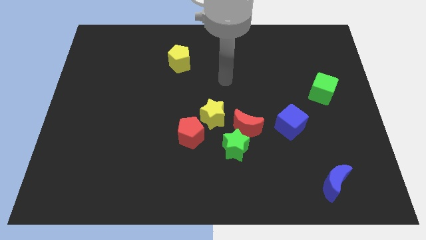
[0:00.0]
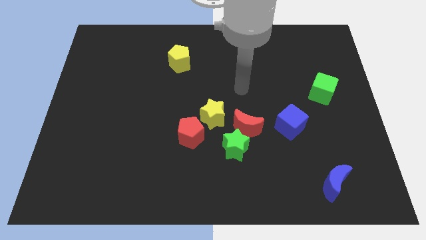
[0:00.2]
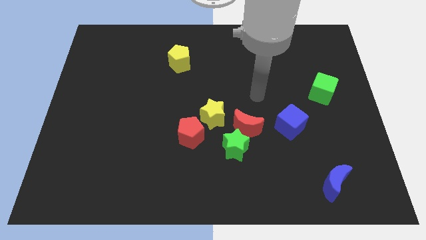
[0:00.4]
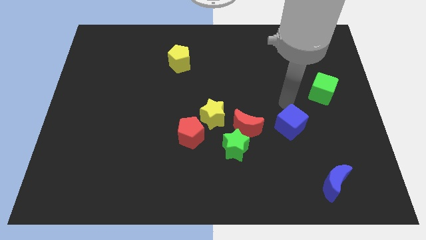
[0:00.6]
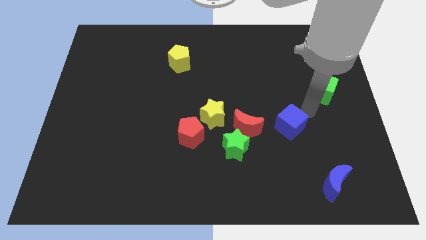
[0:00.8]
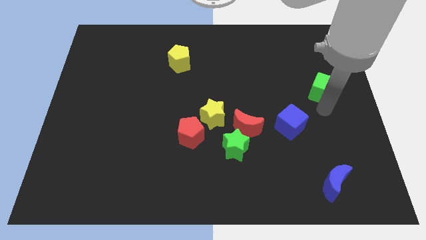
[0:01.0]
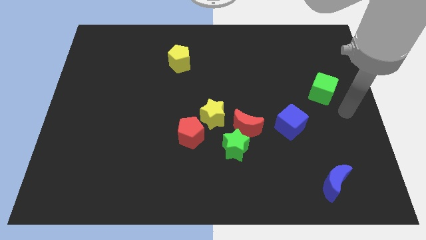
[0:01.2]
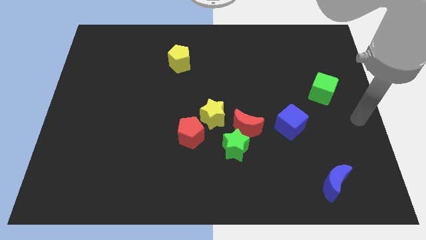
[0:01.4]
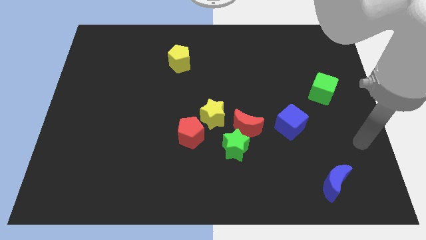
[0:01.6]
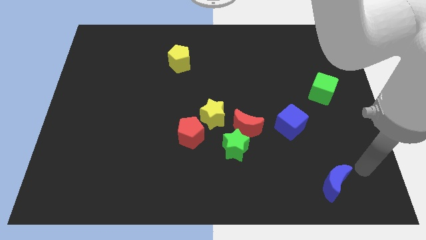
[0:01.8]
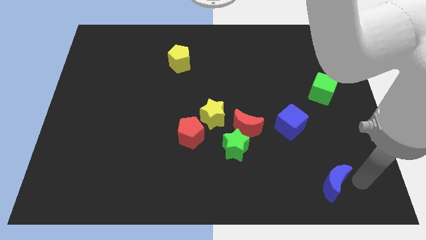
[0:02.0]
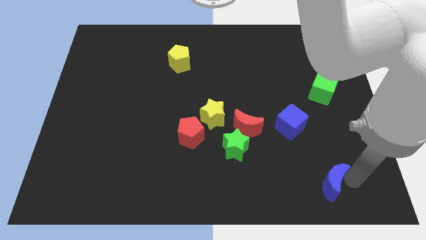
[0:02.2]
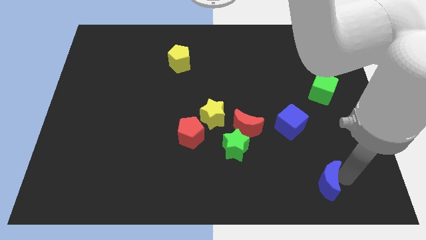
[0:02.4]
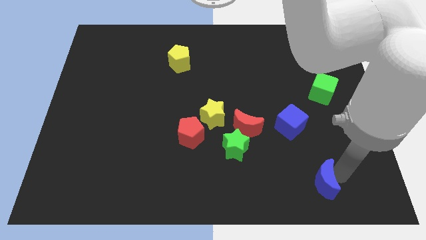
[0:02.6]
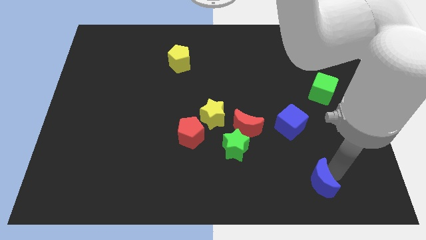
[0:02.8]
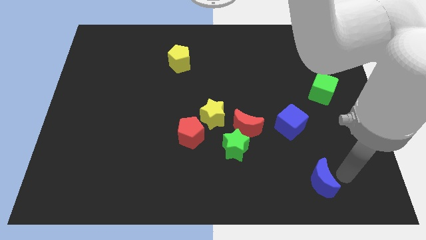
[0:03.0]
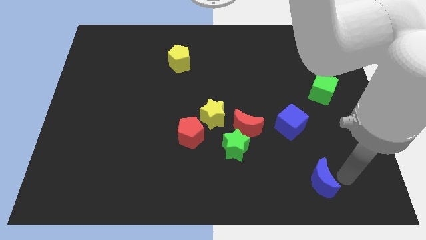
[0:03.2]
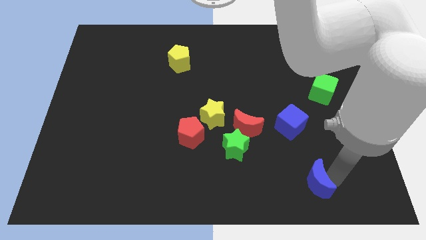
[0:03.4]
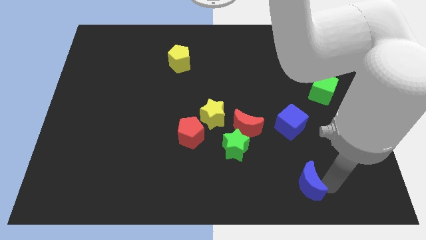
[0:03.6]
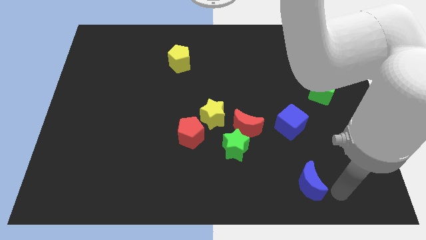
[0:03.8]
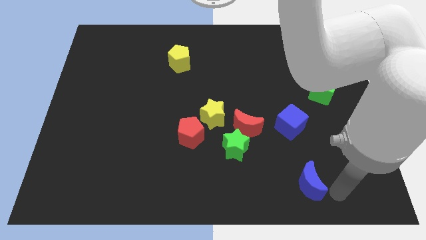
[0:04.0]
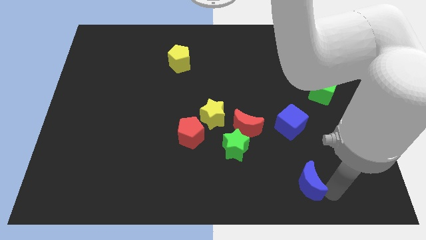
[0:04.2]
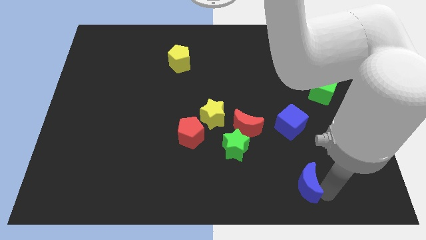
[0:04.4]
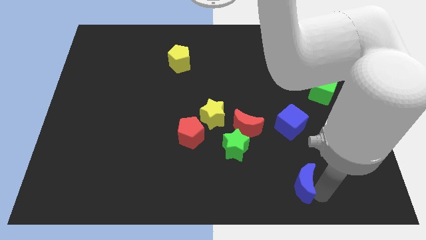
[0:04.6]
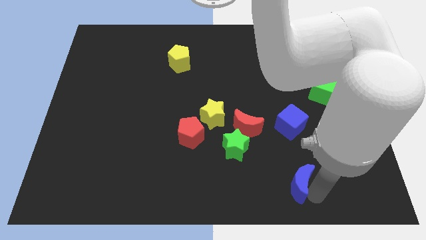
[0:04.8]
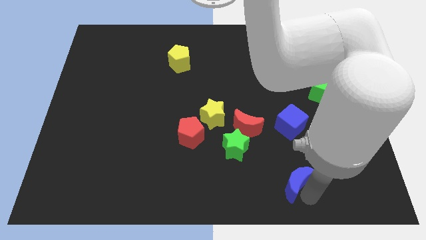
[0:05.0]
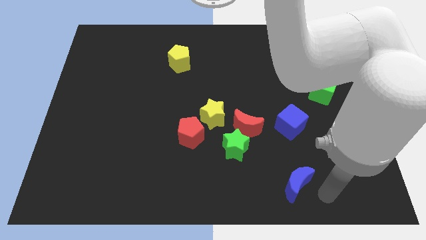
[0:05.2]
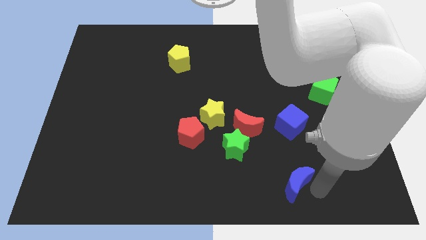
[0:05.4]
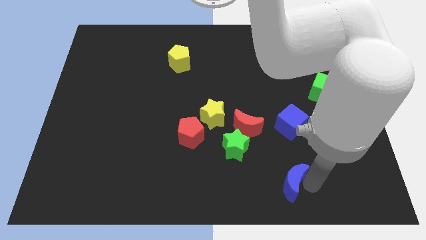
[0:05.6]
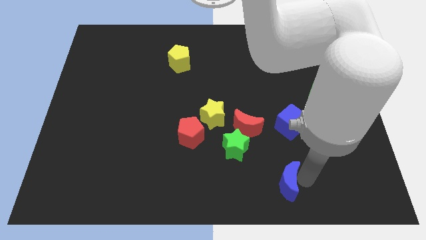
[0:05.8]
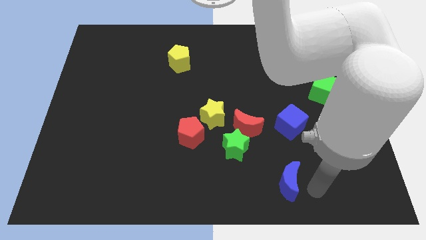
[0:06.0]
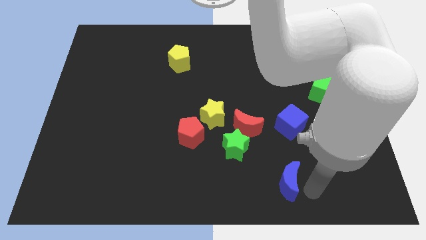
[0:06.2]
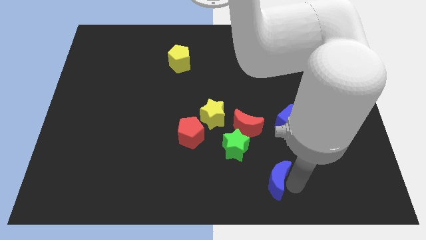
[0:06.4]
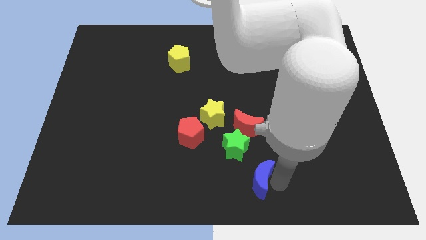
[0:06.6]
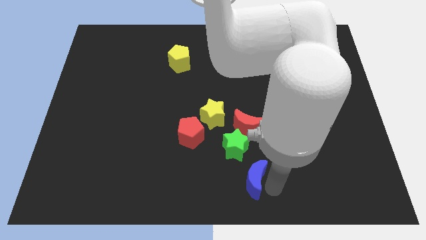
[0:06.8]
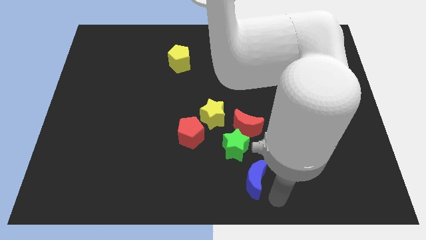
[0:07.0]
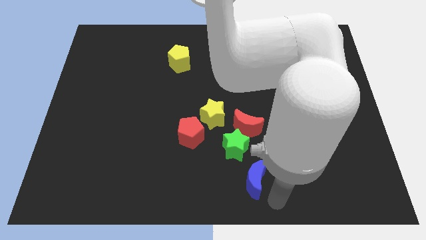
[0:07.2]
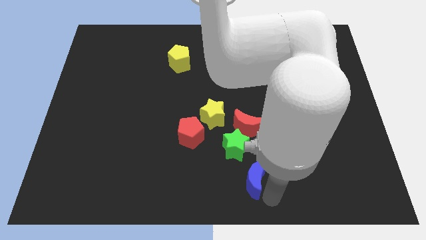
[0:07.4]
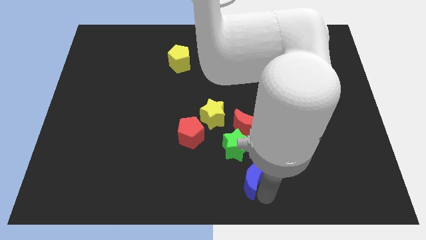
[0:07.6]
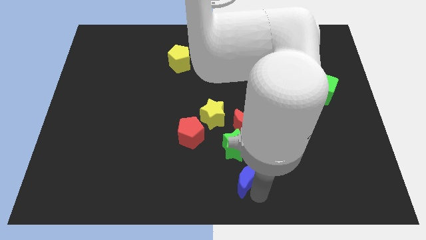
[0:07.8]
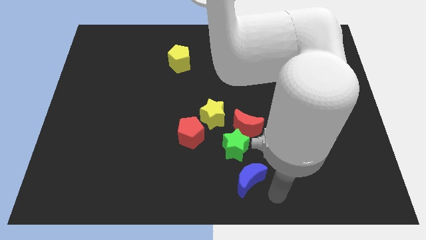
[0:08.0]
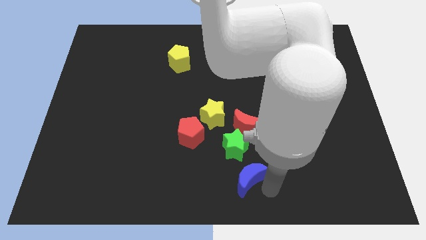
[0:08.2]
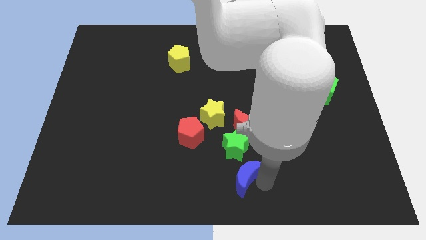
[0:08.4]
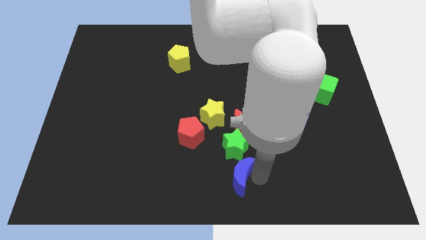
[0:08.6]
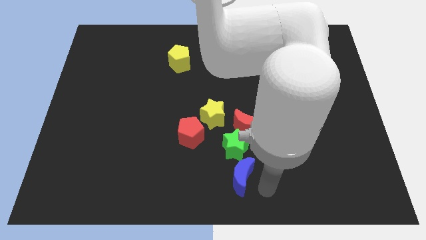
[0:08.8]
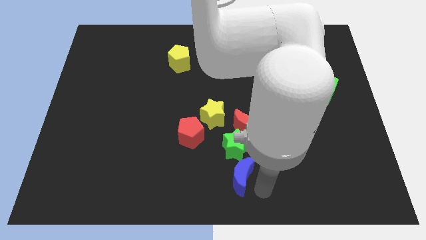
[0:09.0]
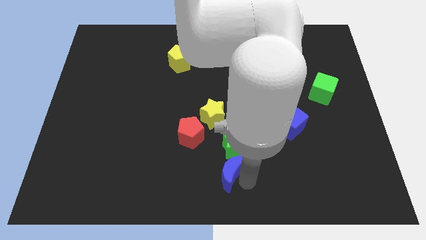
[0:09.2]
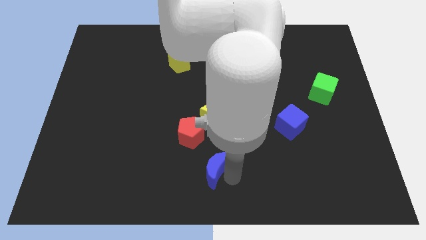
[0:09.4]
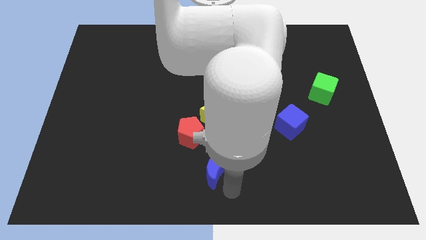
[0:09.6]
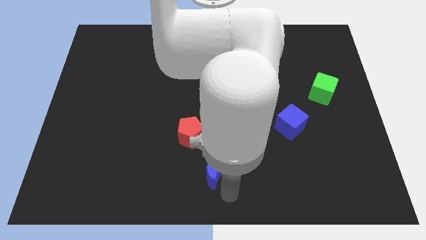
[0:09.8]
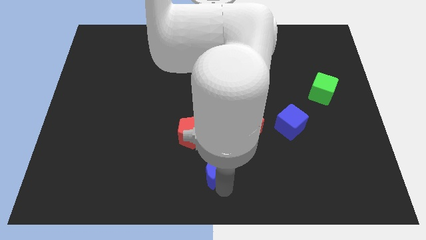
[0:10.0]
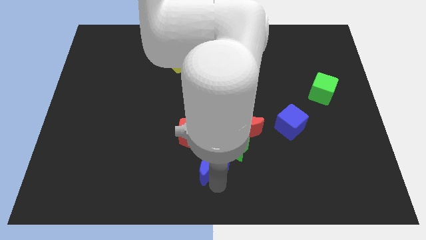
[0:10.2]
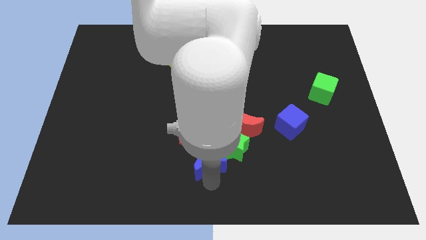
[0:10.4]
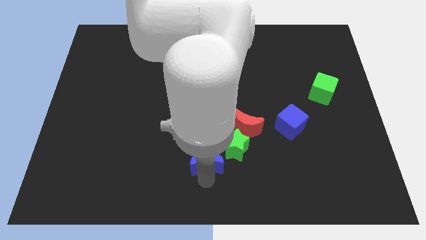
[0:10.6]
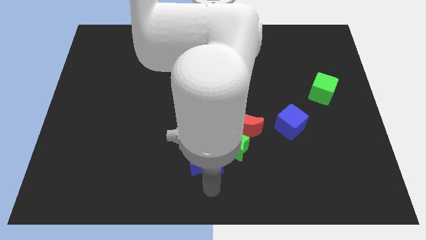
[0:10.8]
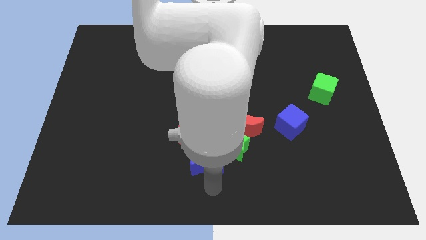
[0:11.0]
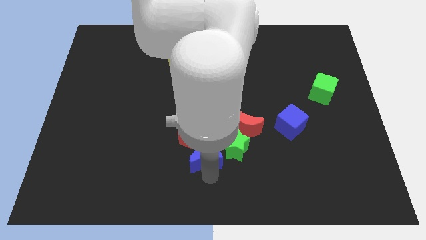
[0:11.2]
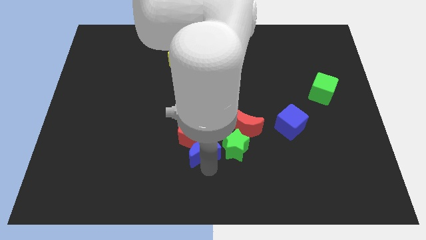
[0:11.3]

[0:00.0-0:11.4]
put the blue moon close to the red pentagon

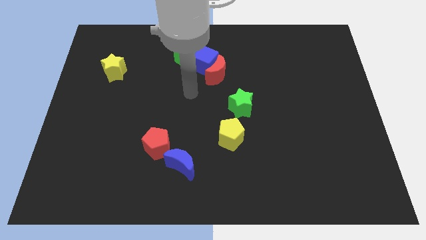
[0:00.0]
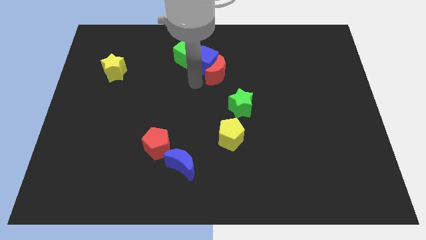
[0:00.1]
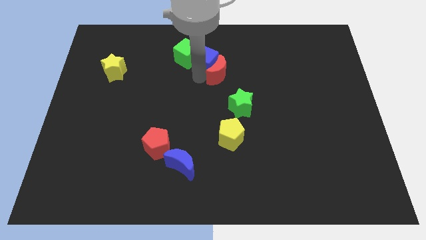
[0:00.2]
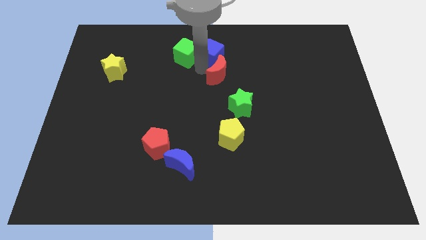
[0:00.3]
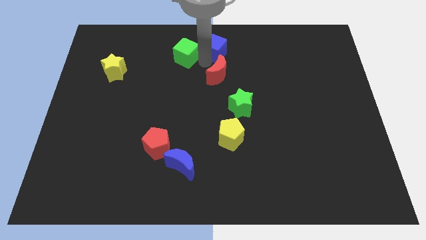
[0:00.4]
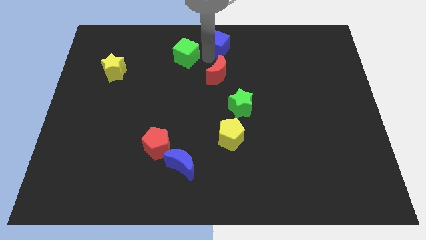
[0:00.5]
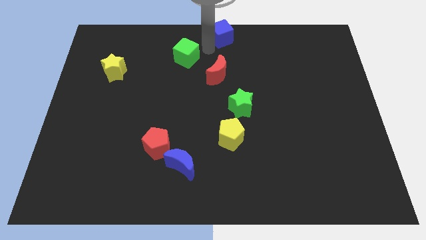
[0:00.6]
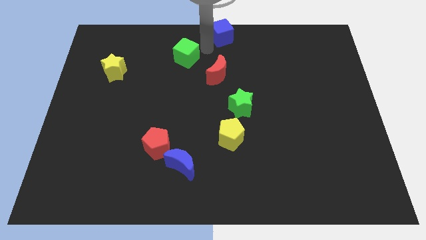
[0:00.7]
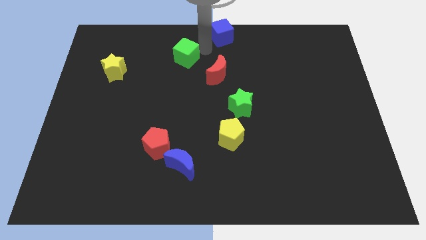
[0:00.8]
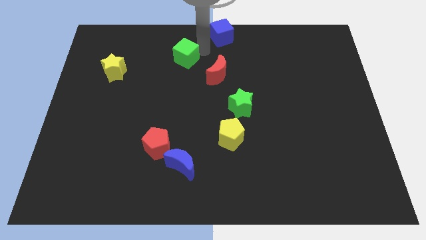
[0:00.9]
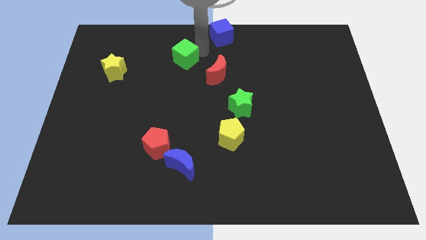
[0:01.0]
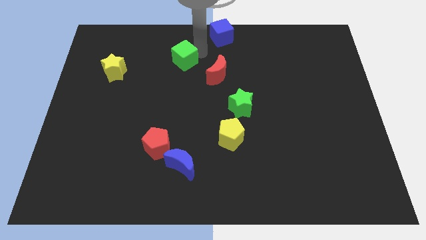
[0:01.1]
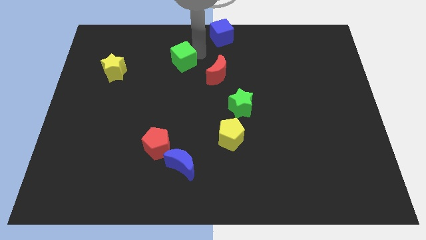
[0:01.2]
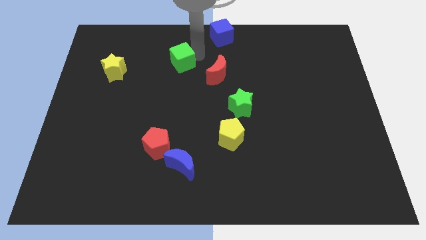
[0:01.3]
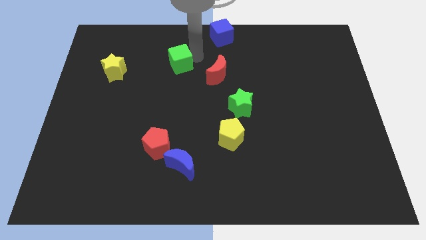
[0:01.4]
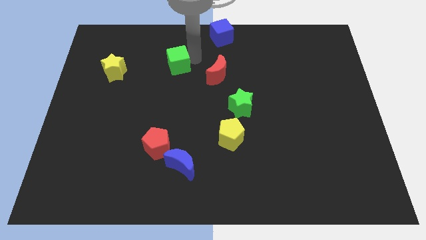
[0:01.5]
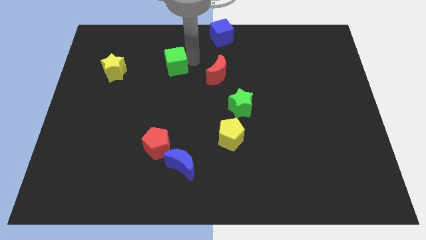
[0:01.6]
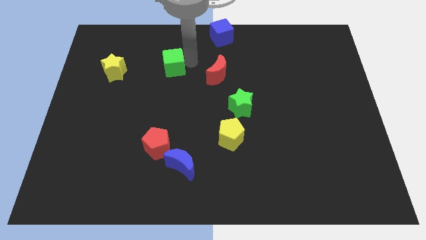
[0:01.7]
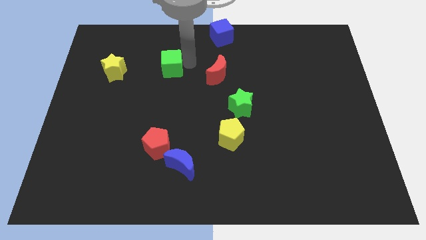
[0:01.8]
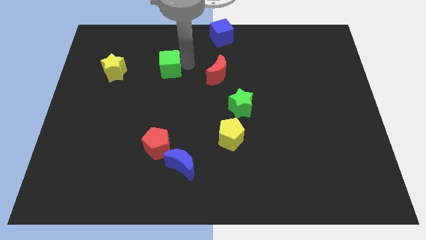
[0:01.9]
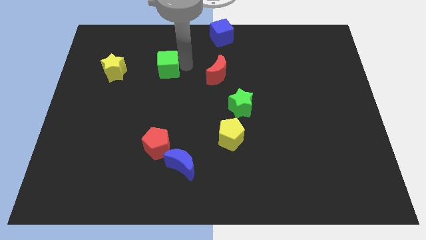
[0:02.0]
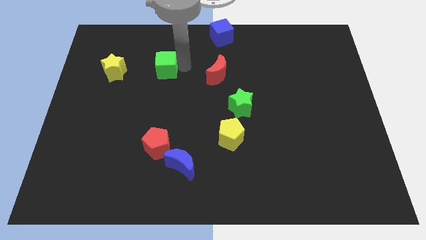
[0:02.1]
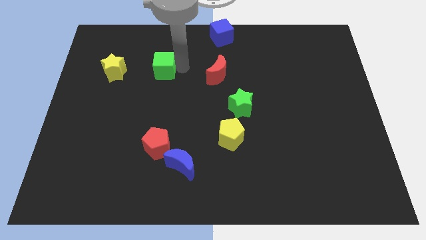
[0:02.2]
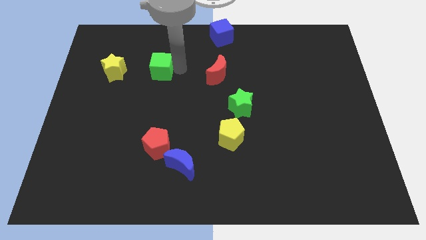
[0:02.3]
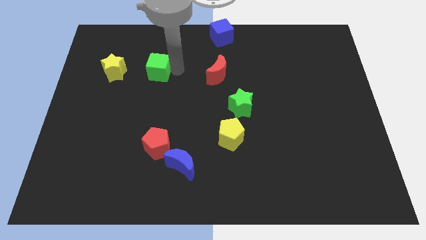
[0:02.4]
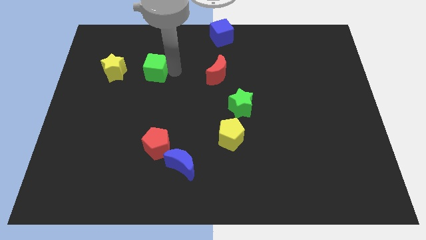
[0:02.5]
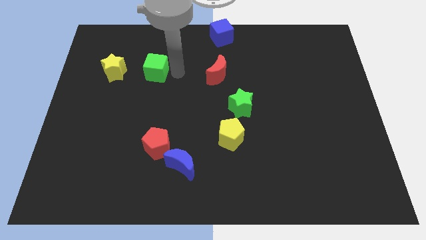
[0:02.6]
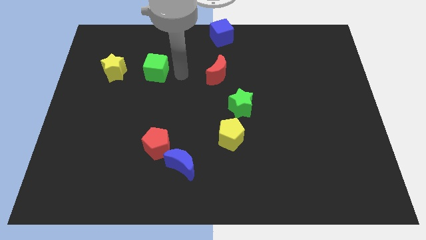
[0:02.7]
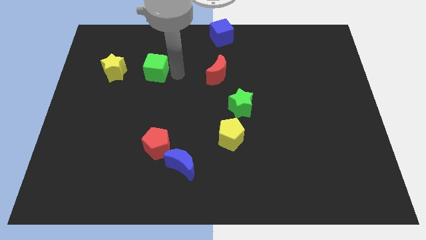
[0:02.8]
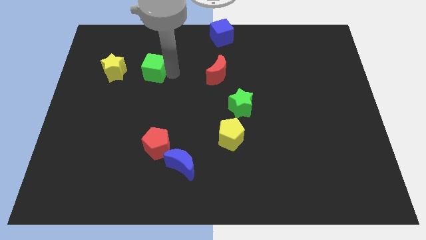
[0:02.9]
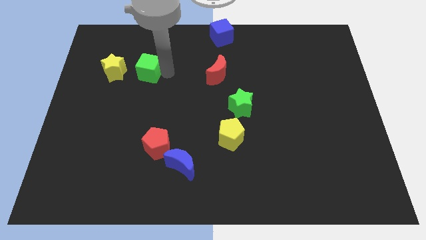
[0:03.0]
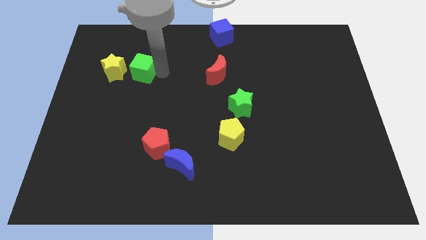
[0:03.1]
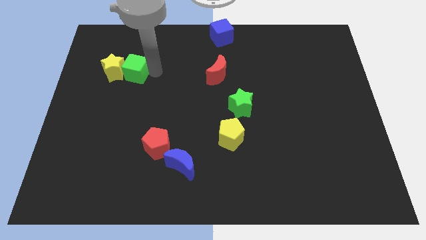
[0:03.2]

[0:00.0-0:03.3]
push the green cube to the yellow star
